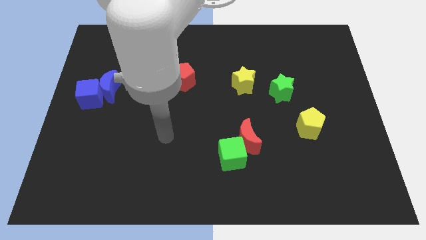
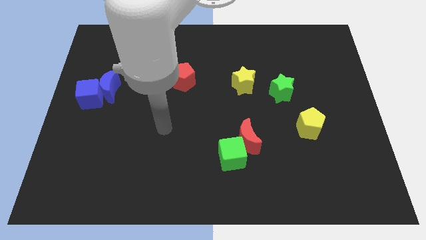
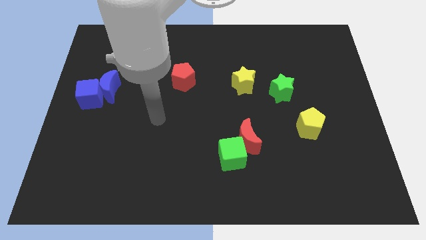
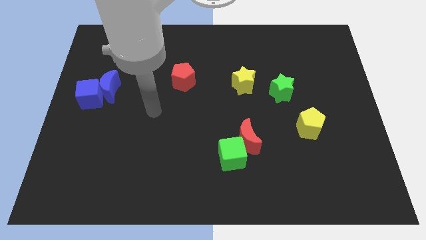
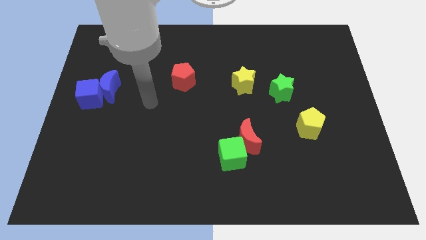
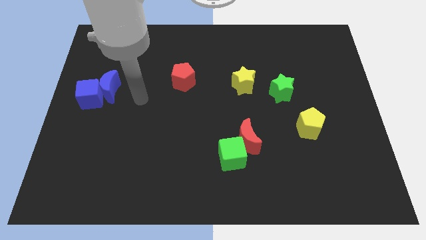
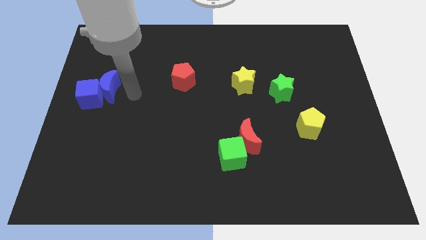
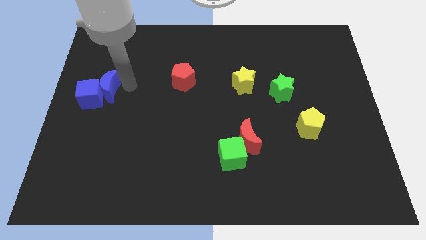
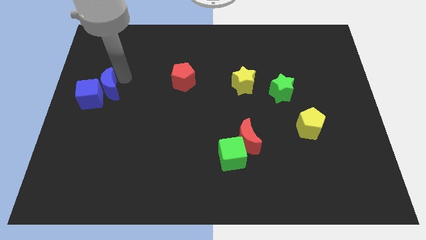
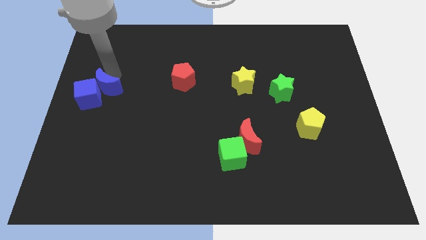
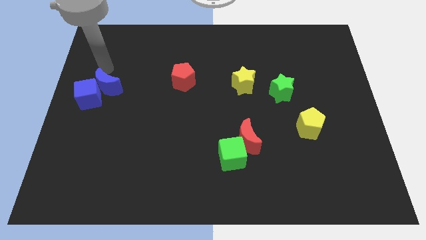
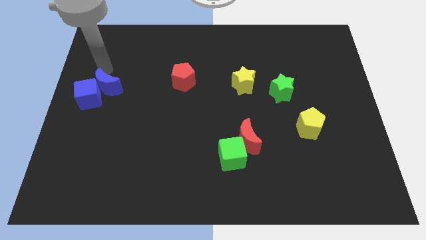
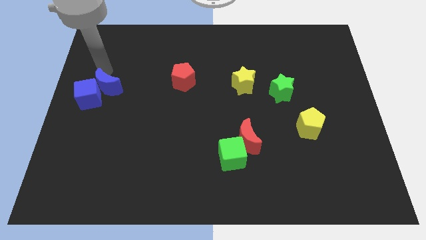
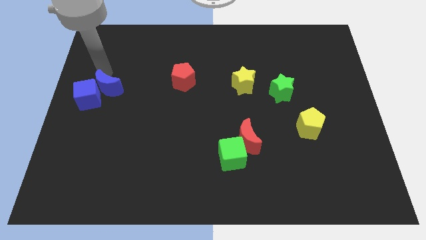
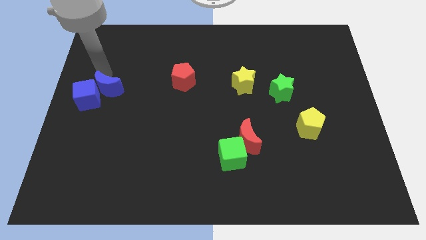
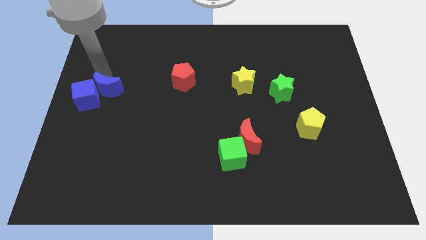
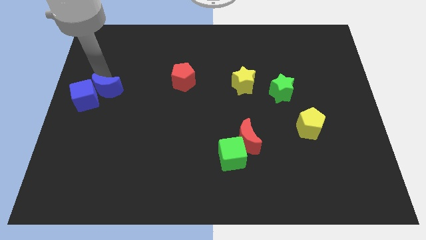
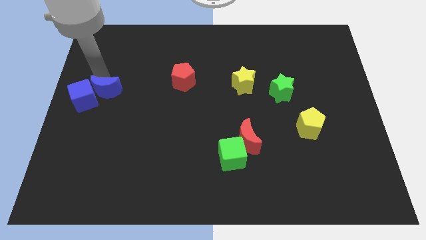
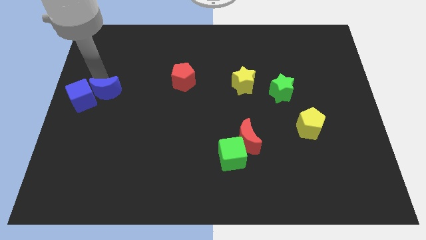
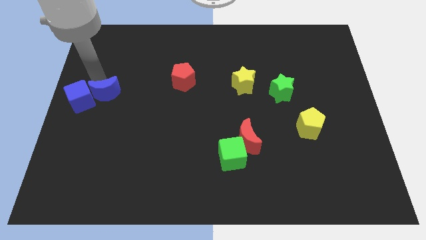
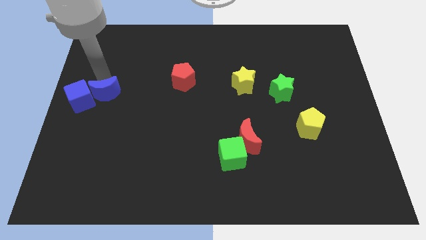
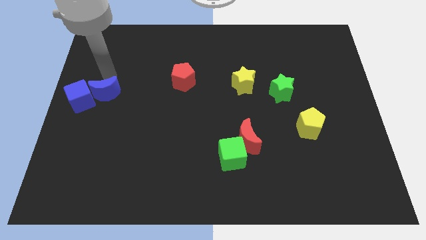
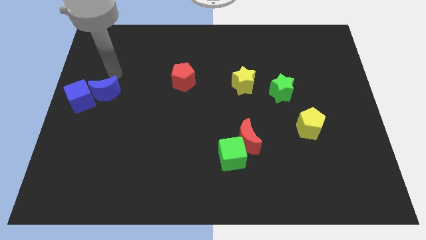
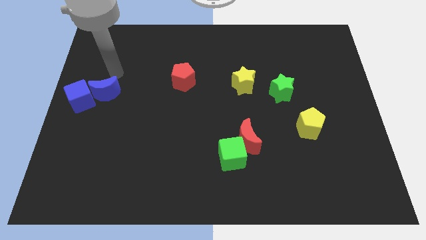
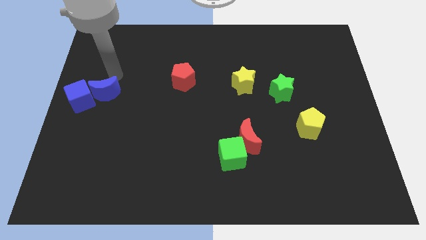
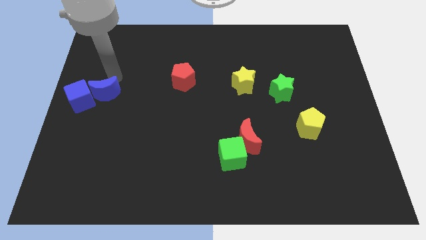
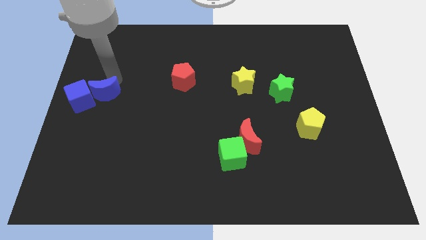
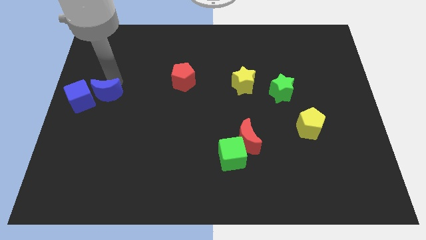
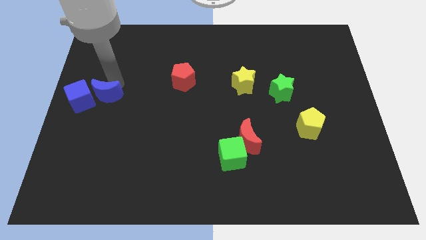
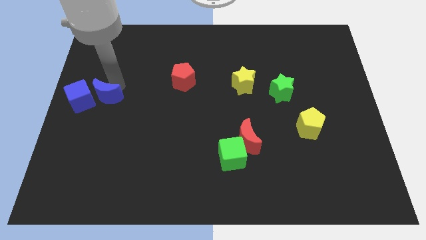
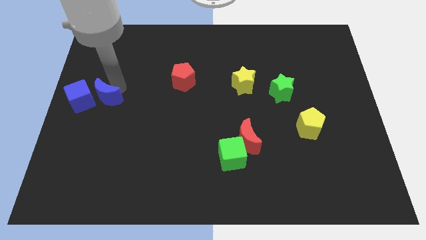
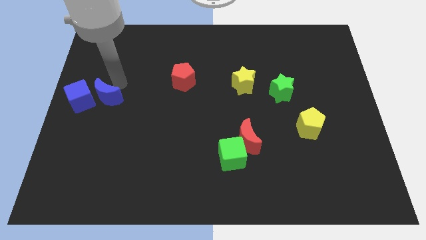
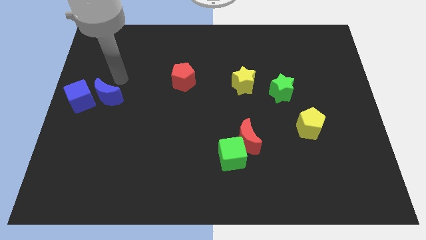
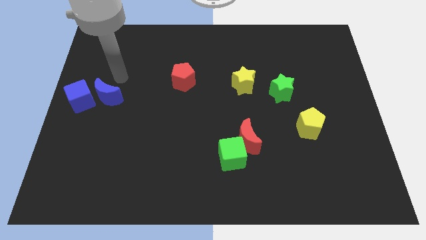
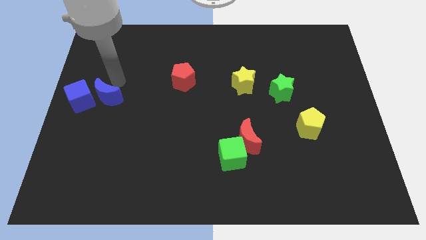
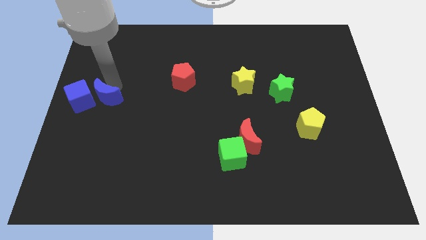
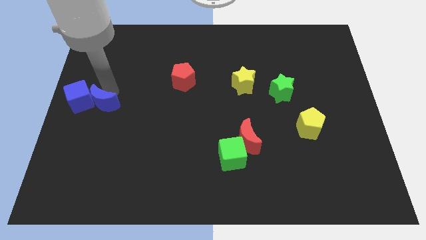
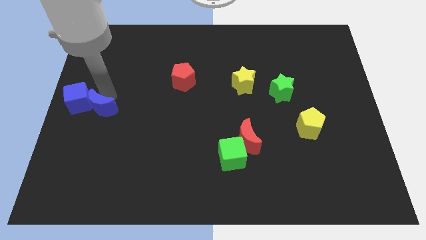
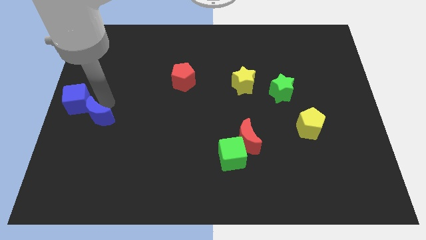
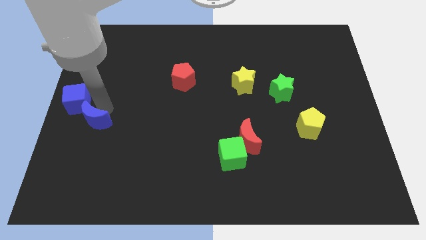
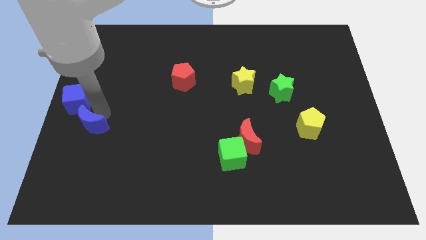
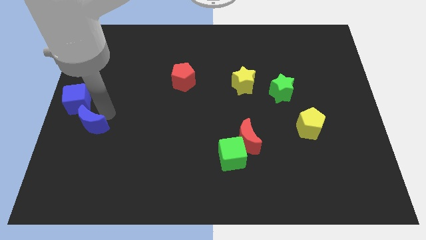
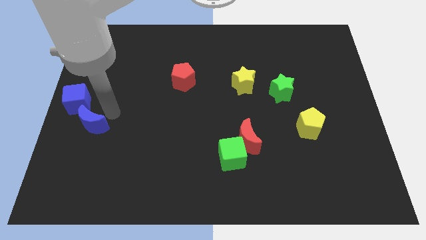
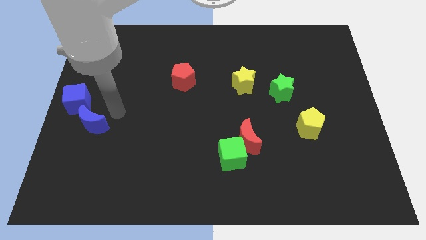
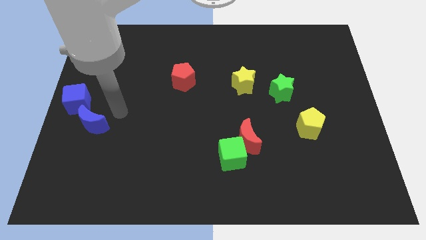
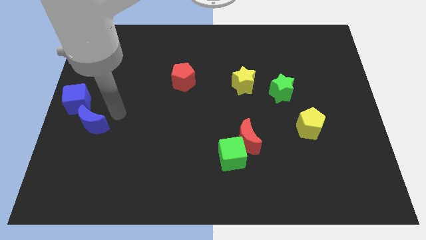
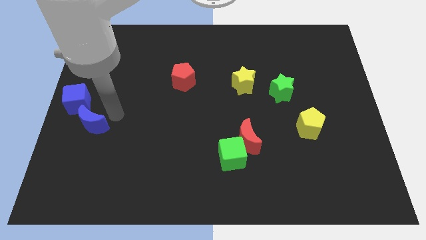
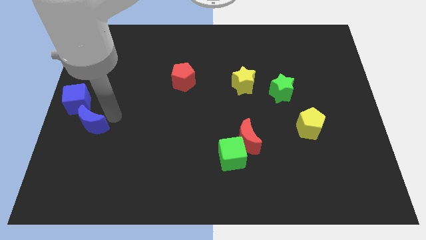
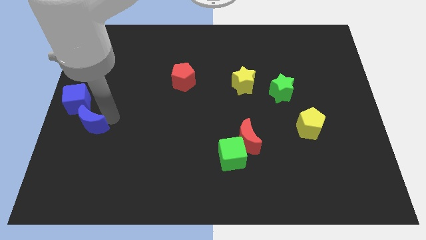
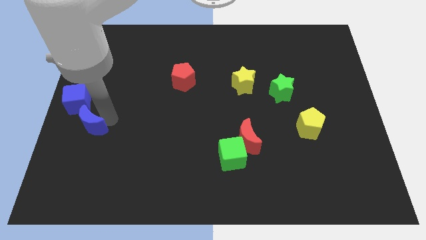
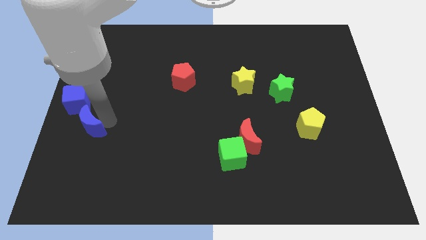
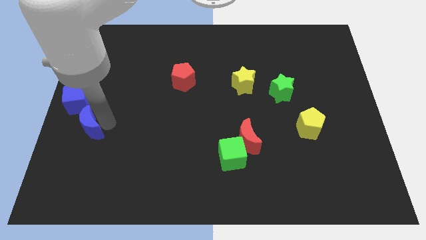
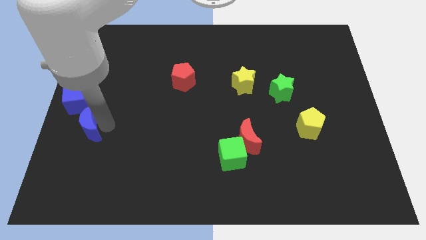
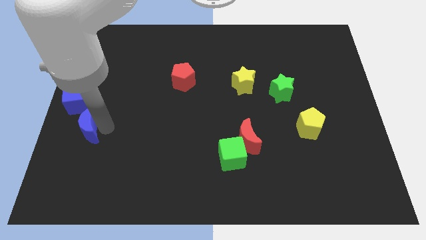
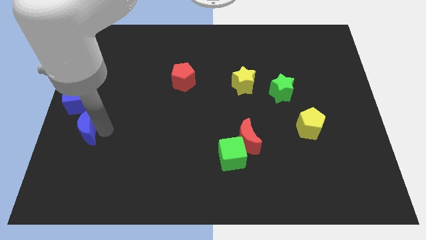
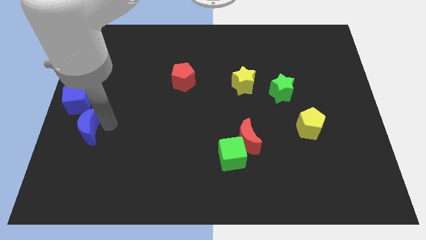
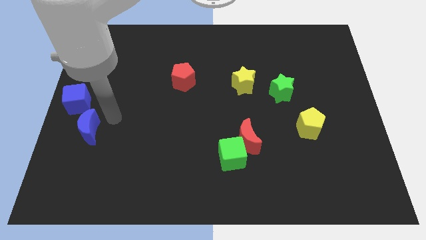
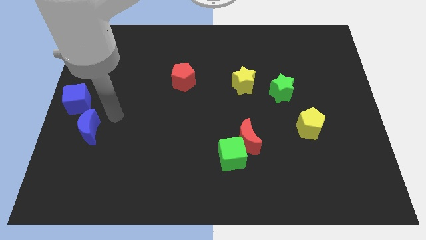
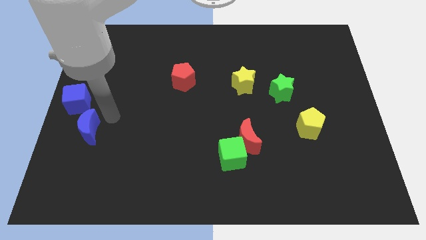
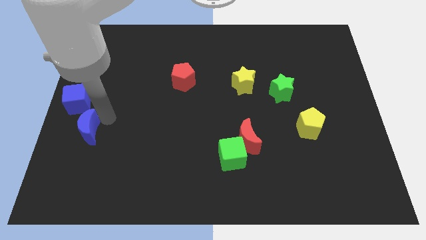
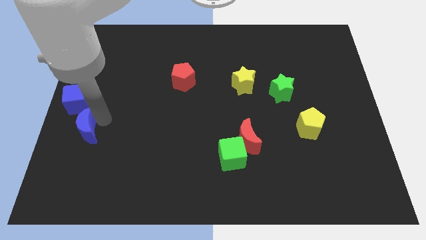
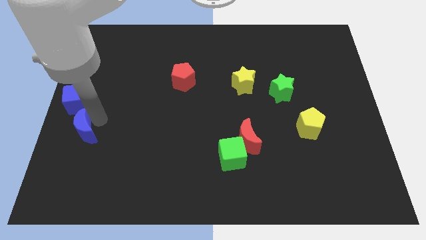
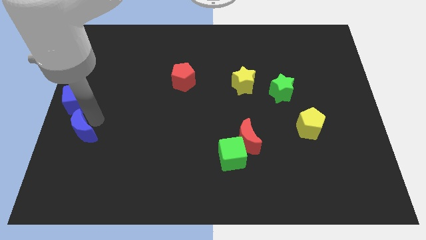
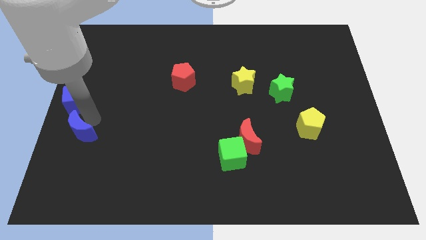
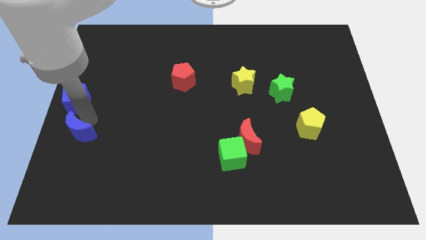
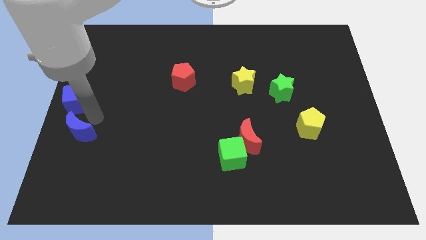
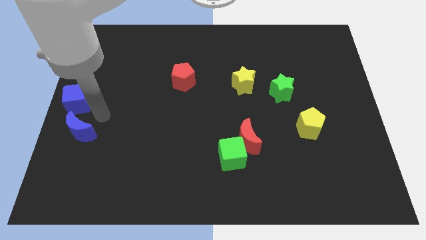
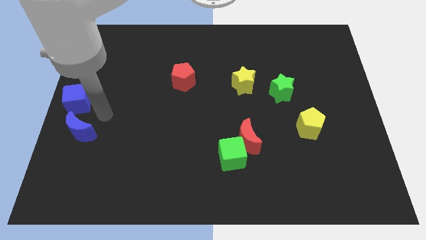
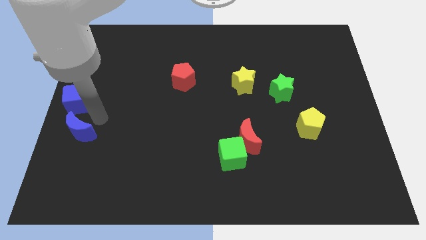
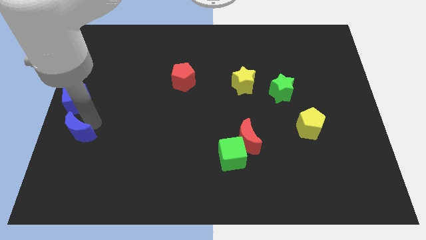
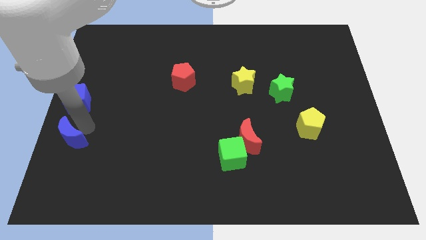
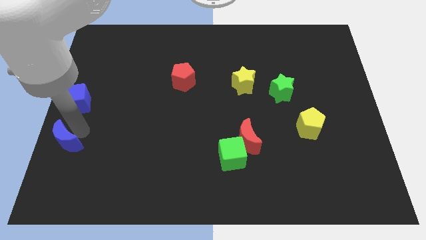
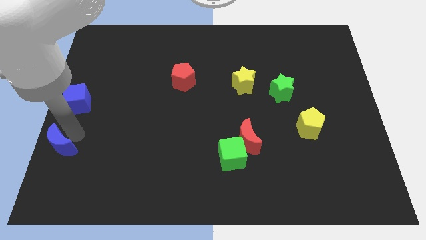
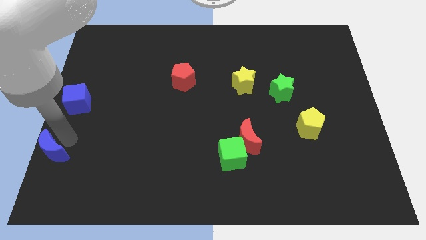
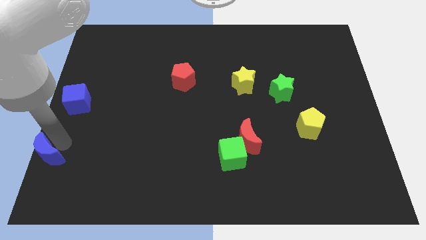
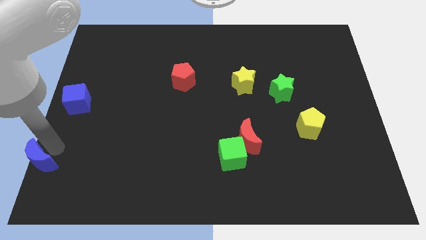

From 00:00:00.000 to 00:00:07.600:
put the blue moon to the bottom left
